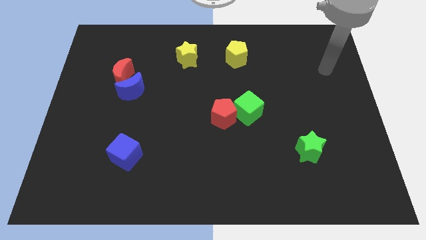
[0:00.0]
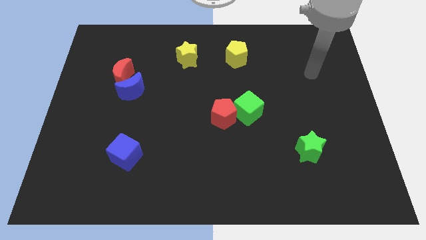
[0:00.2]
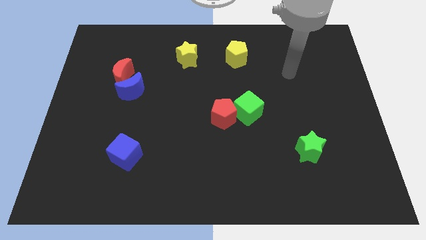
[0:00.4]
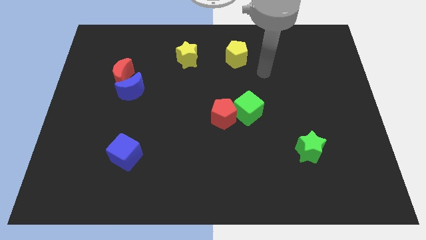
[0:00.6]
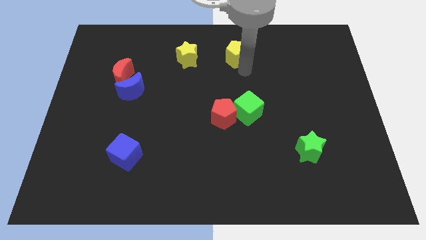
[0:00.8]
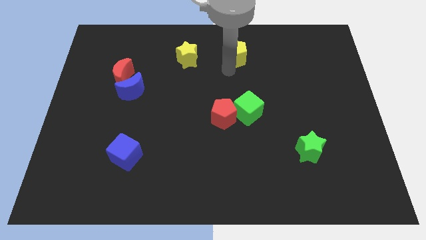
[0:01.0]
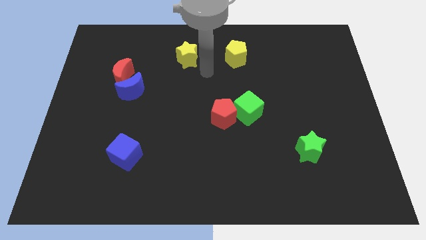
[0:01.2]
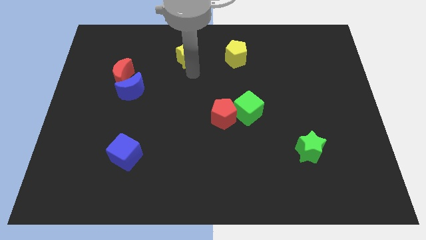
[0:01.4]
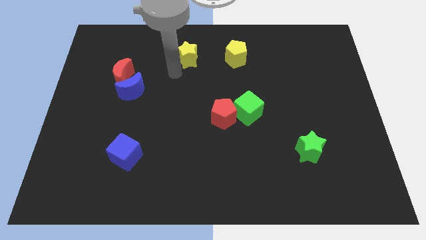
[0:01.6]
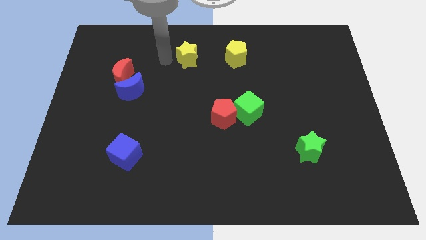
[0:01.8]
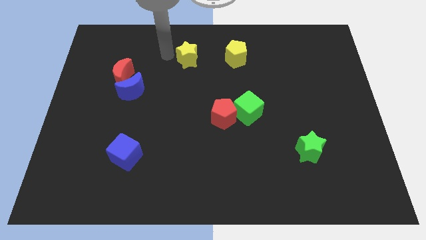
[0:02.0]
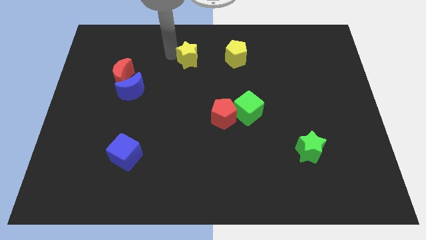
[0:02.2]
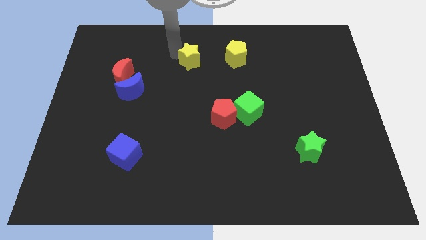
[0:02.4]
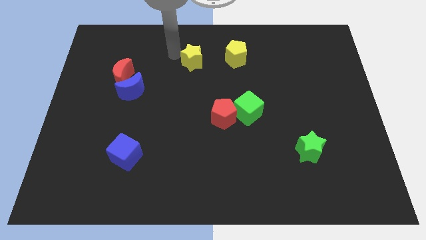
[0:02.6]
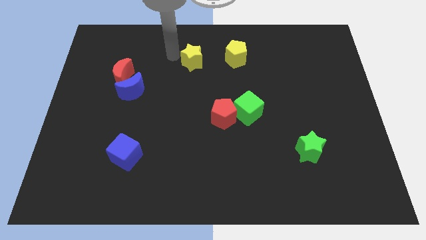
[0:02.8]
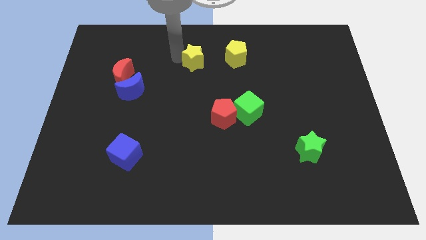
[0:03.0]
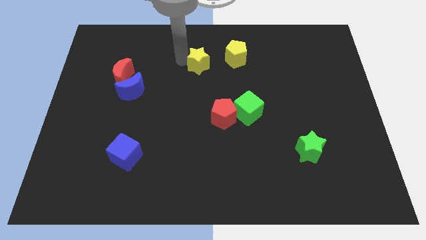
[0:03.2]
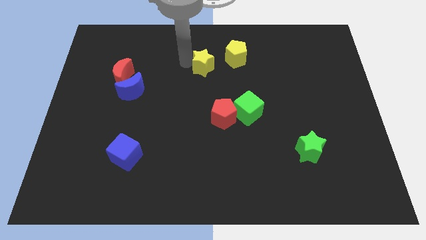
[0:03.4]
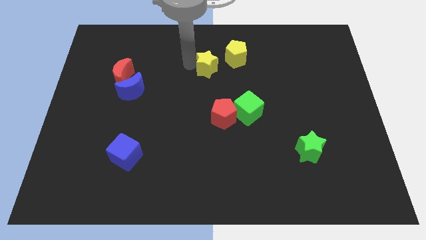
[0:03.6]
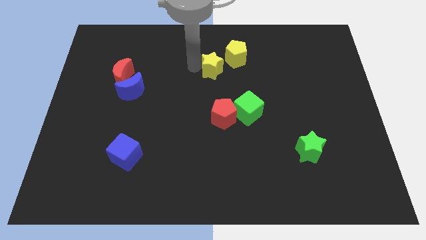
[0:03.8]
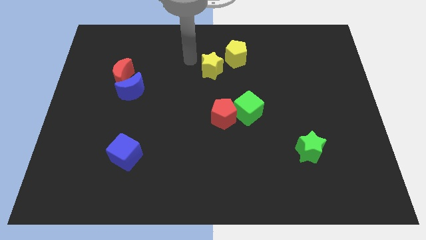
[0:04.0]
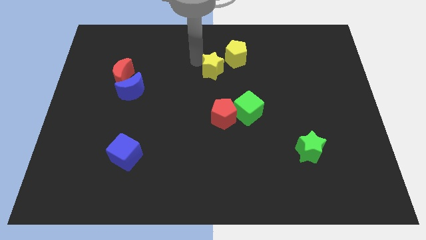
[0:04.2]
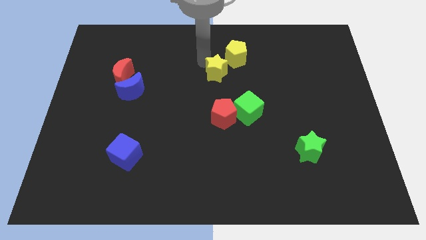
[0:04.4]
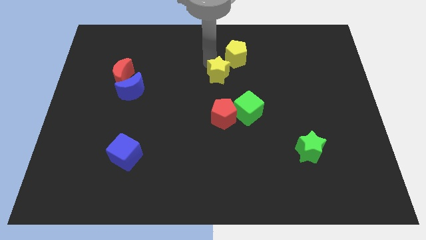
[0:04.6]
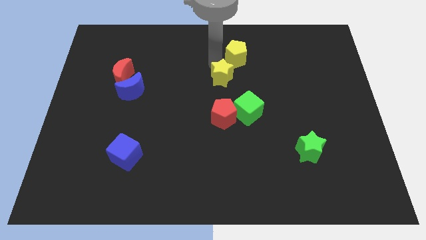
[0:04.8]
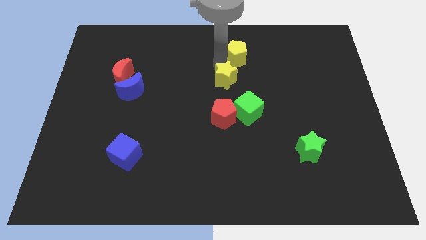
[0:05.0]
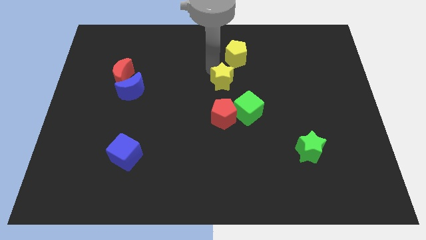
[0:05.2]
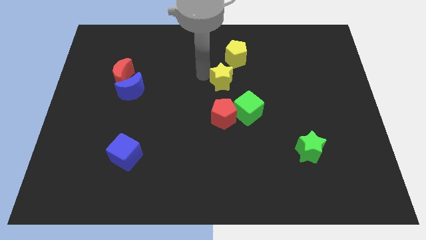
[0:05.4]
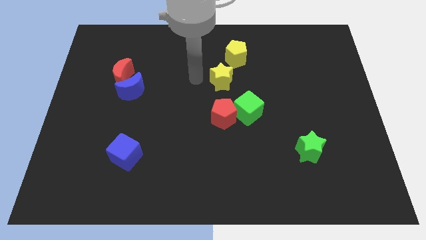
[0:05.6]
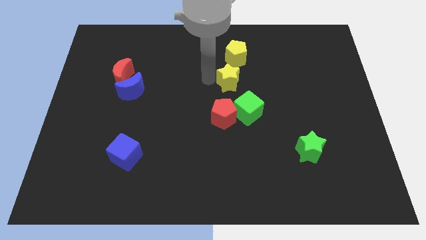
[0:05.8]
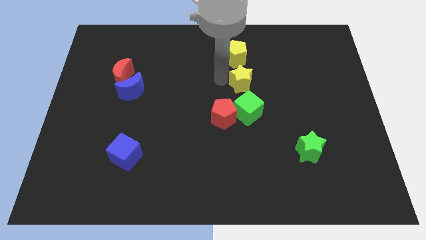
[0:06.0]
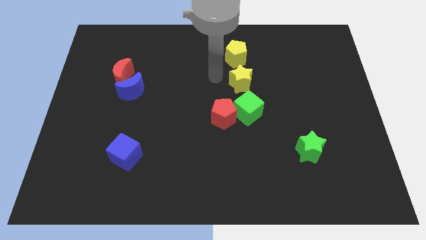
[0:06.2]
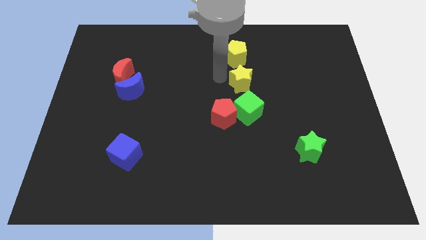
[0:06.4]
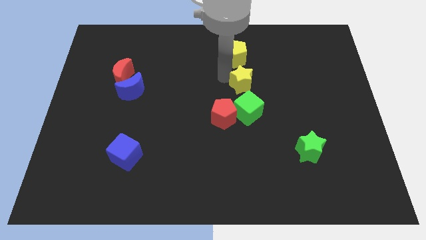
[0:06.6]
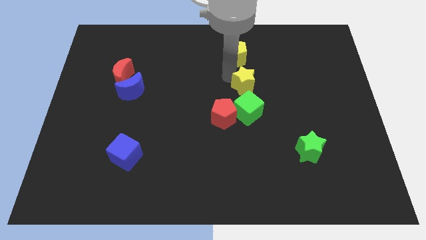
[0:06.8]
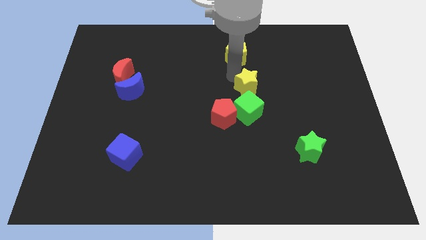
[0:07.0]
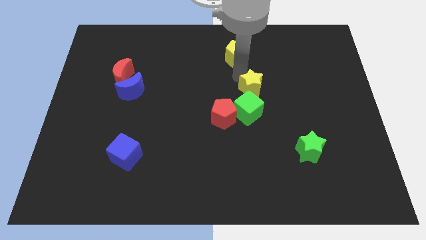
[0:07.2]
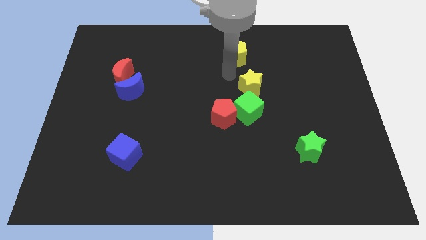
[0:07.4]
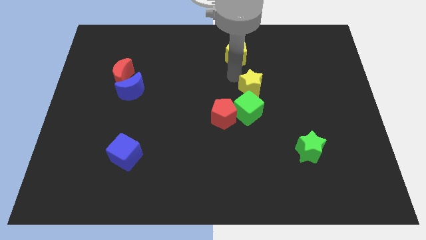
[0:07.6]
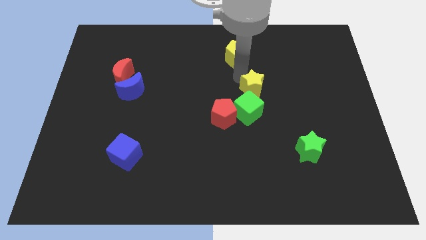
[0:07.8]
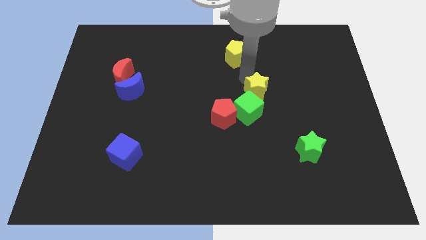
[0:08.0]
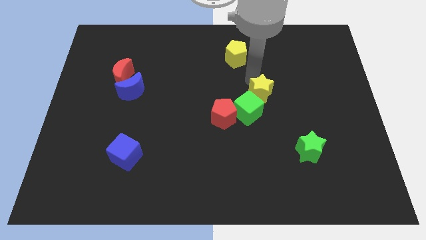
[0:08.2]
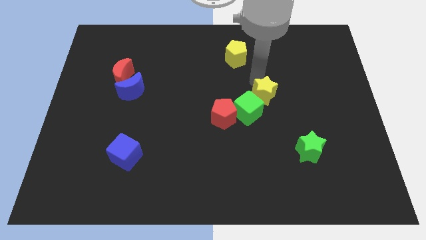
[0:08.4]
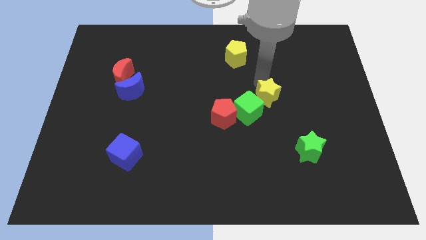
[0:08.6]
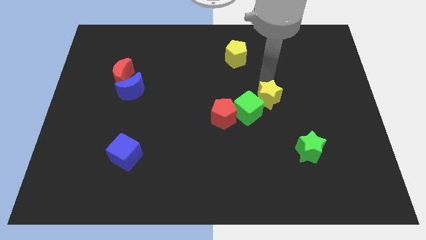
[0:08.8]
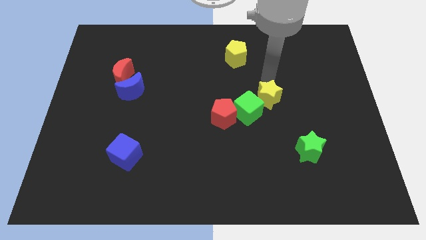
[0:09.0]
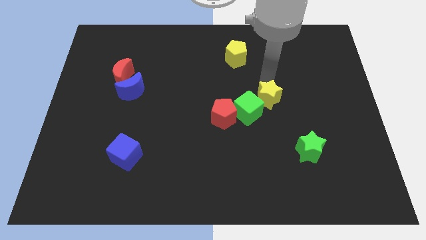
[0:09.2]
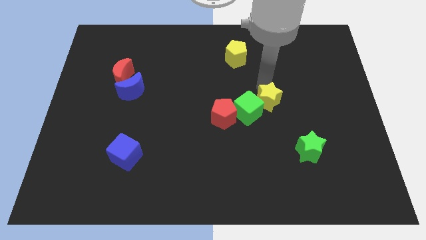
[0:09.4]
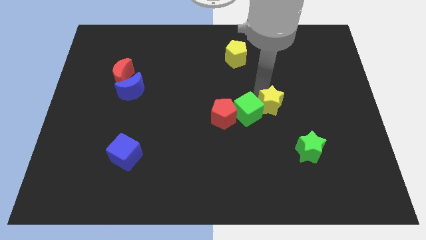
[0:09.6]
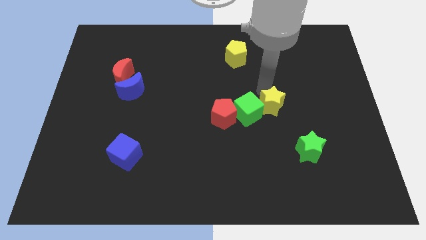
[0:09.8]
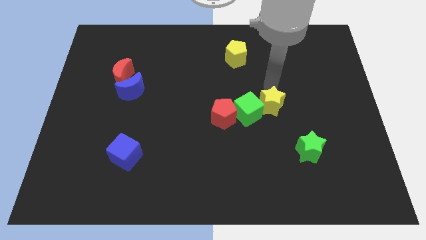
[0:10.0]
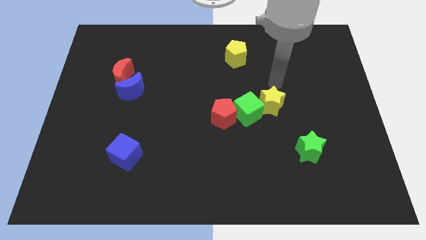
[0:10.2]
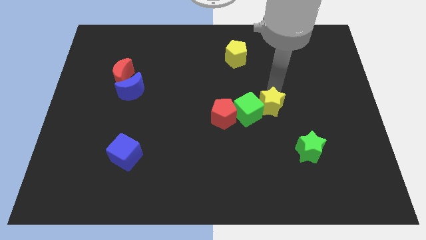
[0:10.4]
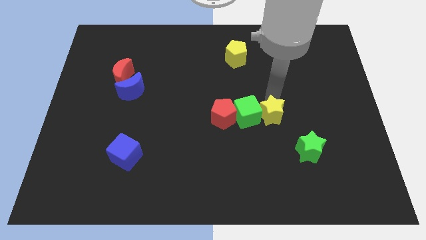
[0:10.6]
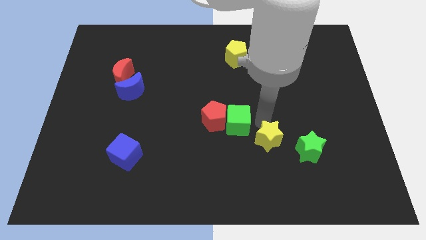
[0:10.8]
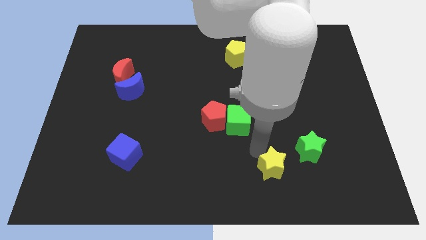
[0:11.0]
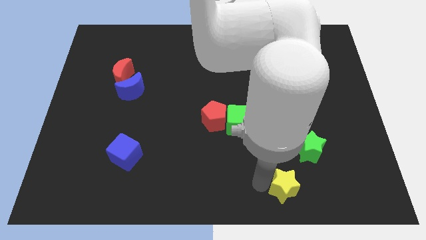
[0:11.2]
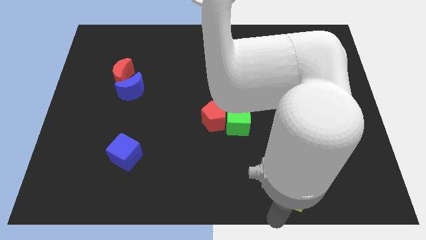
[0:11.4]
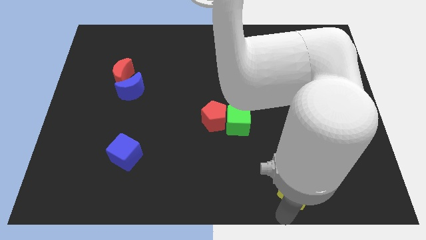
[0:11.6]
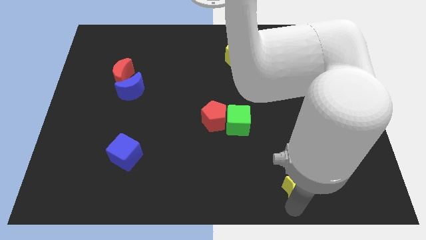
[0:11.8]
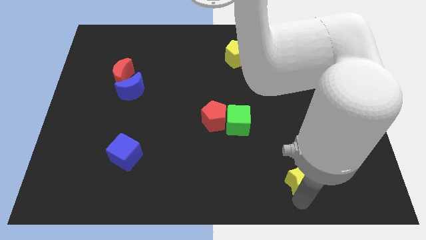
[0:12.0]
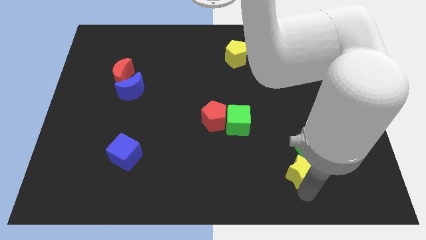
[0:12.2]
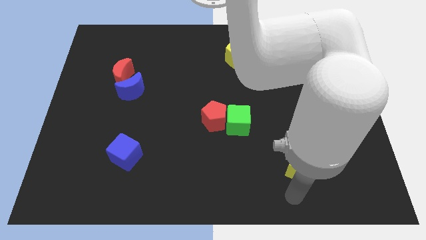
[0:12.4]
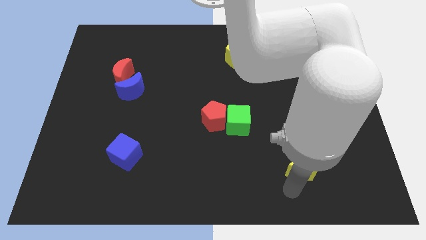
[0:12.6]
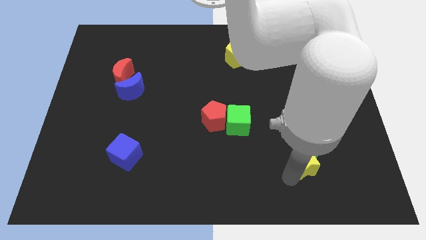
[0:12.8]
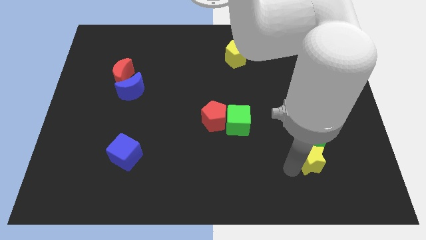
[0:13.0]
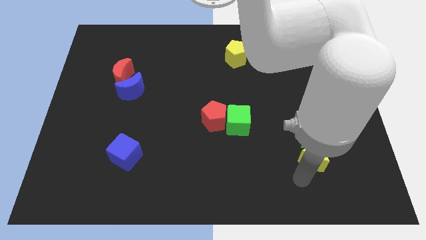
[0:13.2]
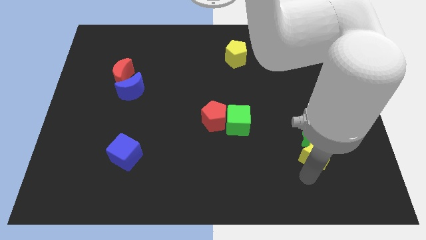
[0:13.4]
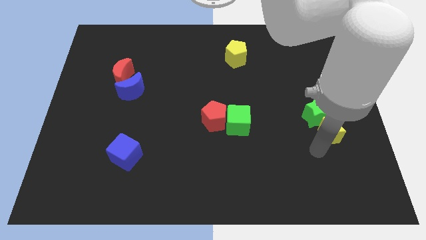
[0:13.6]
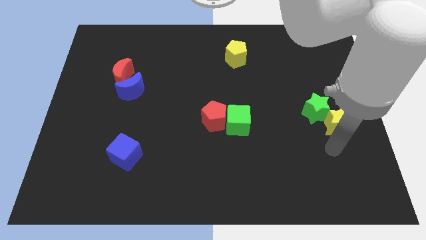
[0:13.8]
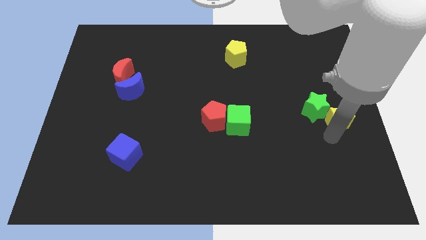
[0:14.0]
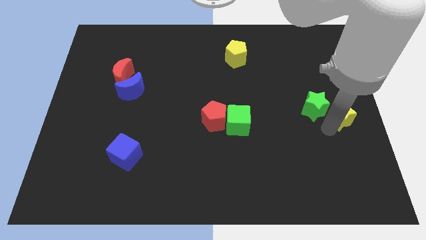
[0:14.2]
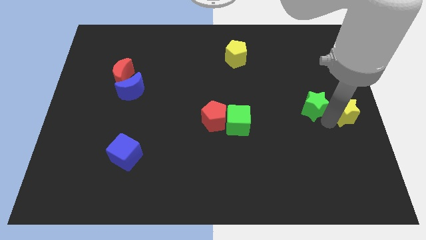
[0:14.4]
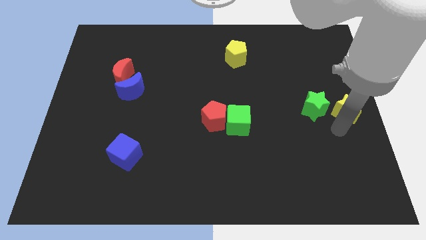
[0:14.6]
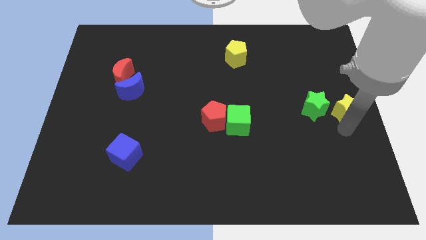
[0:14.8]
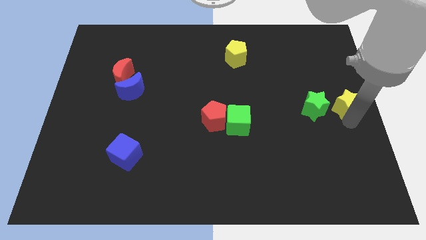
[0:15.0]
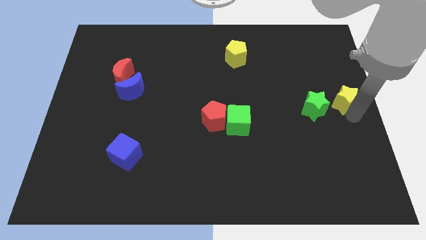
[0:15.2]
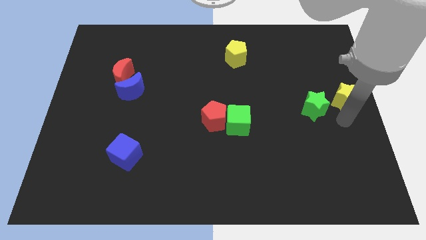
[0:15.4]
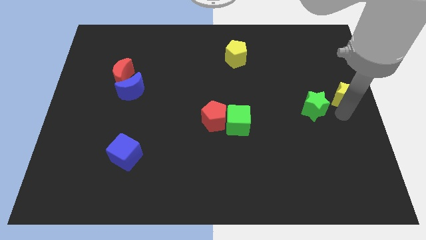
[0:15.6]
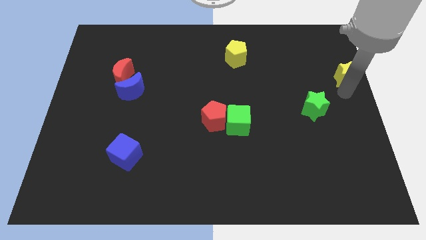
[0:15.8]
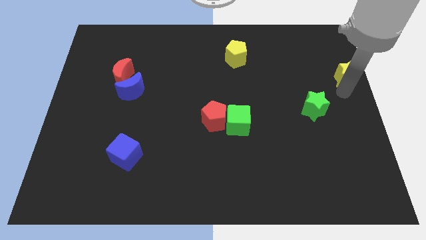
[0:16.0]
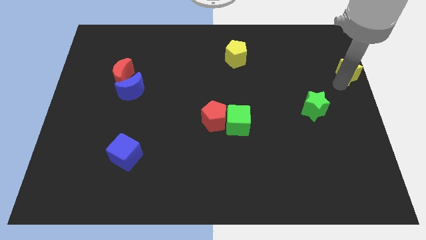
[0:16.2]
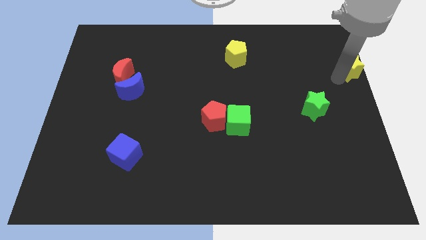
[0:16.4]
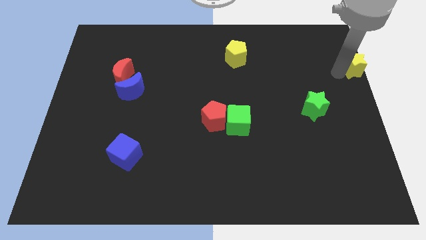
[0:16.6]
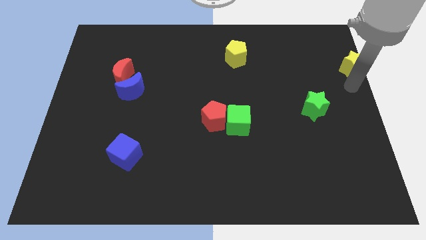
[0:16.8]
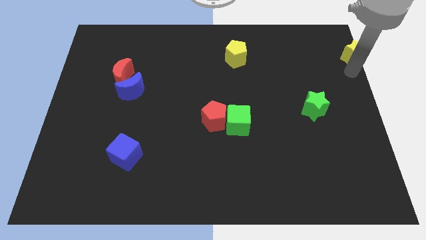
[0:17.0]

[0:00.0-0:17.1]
slide the yellow star to the top right of the board
